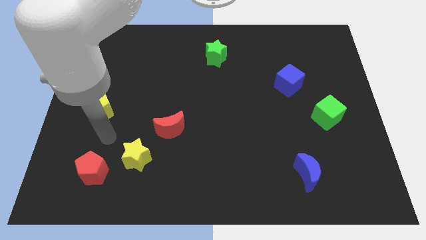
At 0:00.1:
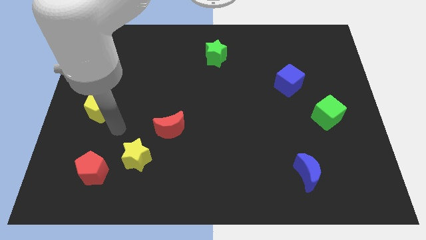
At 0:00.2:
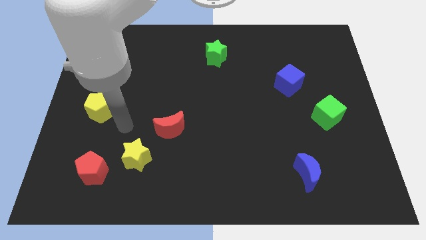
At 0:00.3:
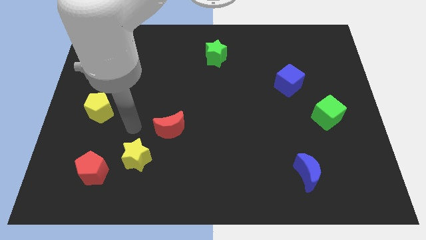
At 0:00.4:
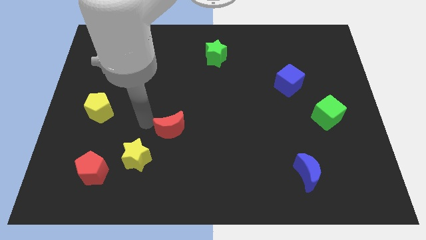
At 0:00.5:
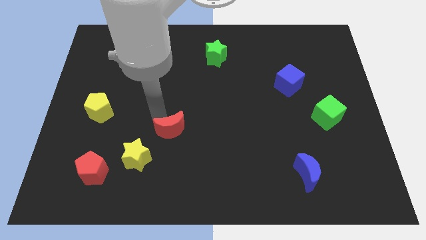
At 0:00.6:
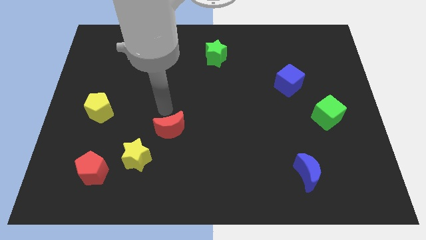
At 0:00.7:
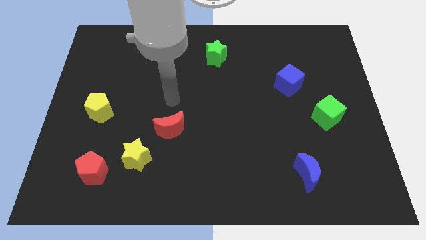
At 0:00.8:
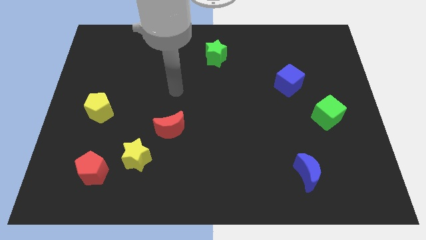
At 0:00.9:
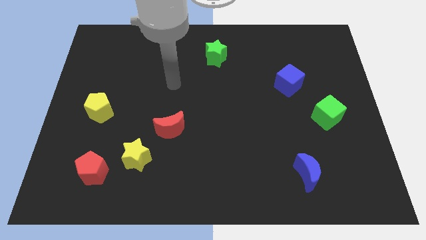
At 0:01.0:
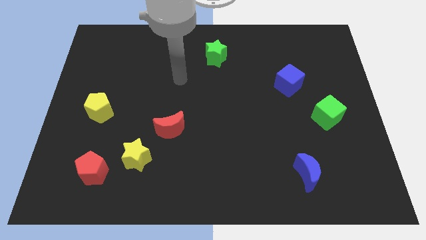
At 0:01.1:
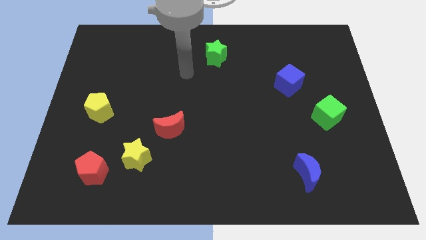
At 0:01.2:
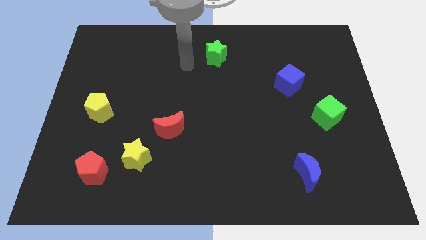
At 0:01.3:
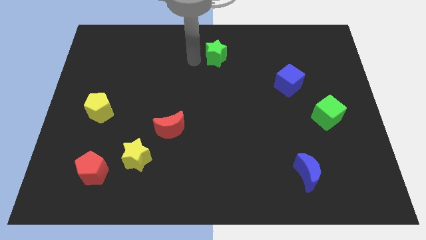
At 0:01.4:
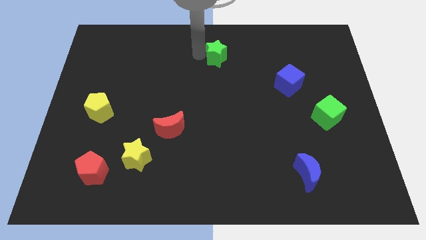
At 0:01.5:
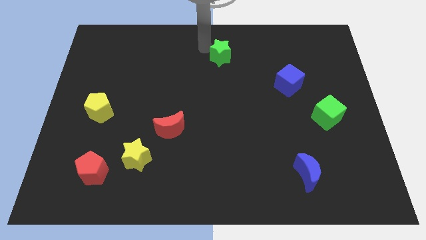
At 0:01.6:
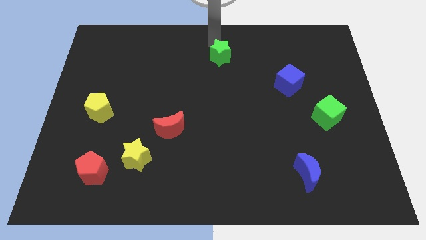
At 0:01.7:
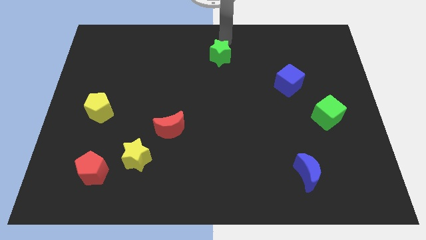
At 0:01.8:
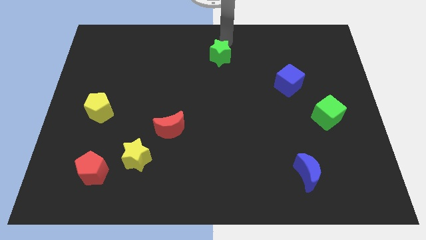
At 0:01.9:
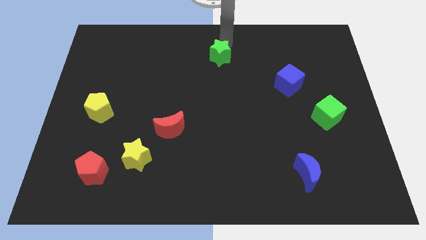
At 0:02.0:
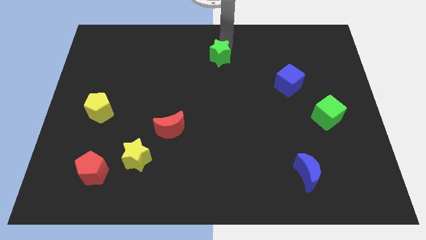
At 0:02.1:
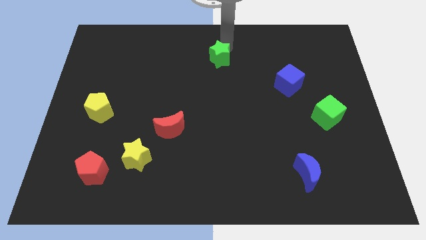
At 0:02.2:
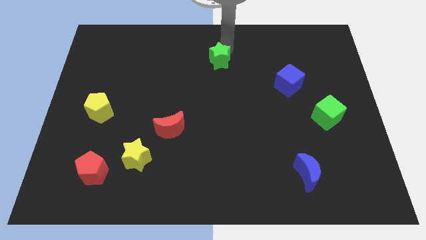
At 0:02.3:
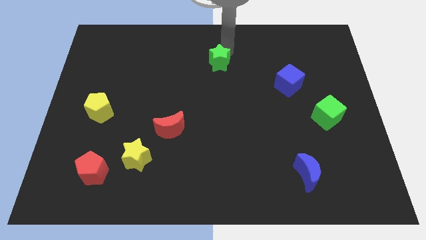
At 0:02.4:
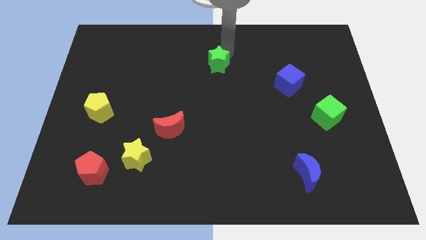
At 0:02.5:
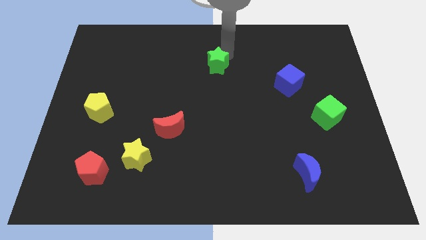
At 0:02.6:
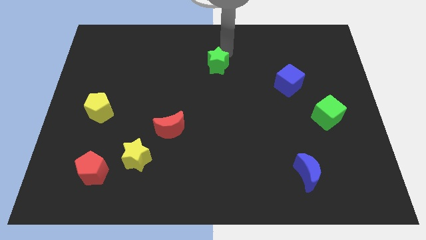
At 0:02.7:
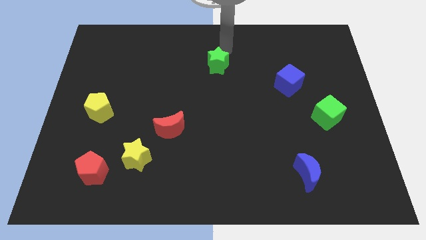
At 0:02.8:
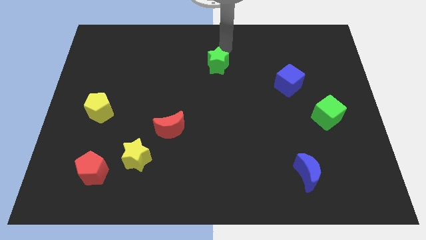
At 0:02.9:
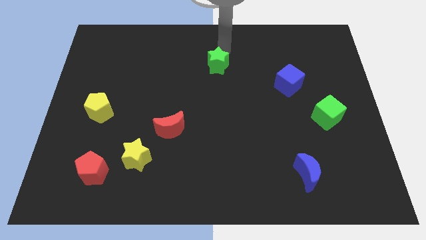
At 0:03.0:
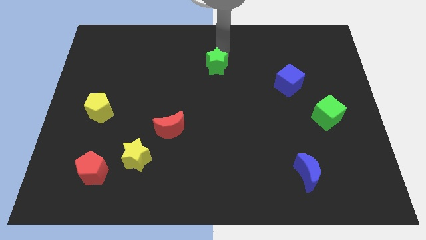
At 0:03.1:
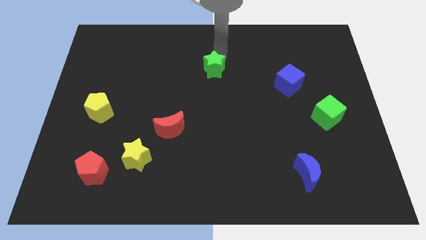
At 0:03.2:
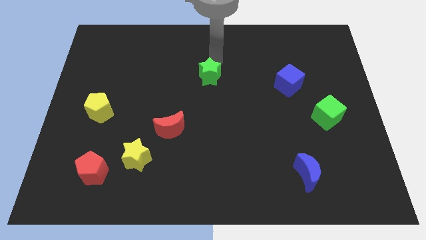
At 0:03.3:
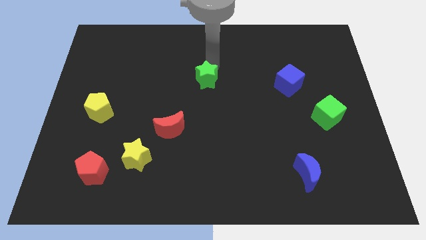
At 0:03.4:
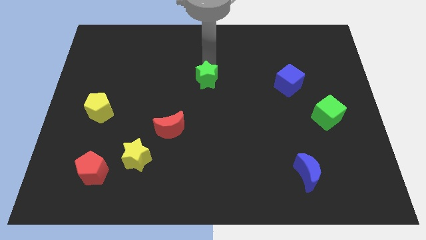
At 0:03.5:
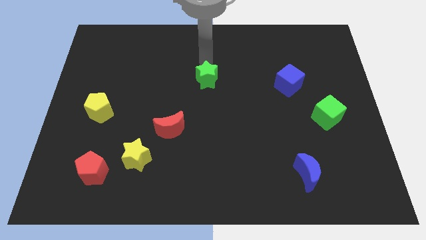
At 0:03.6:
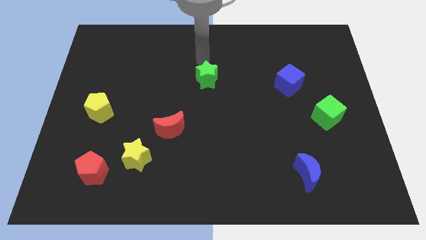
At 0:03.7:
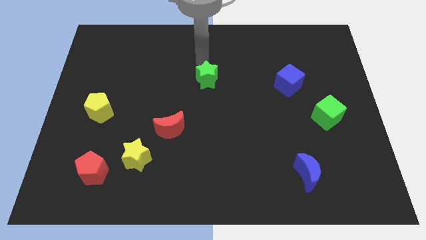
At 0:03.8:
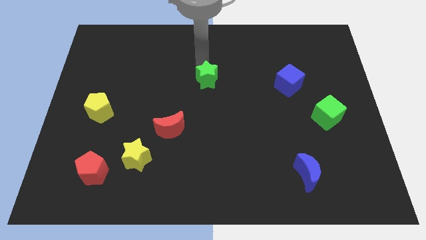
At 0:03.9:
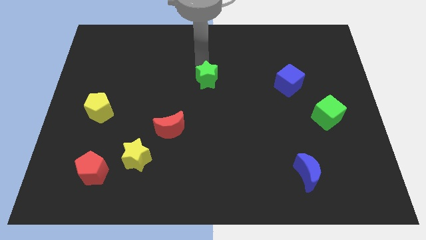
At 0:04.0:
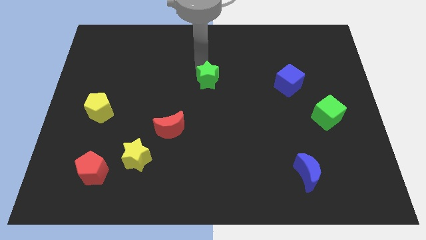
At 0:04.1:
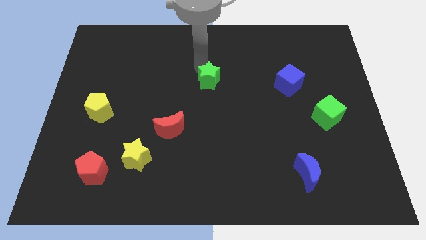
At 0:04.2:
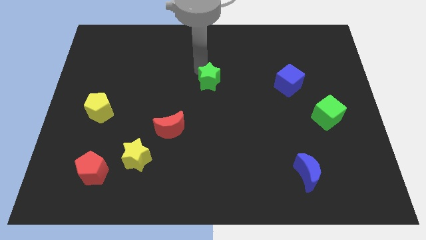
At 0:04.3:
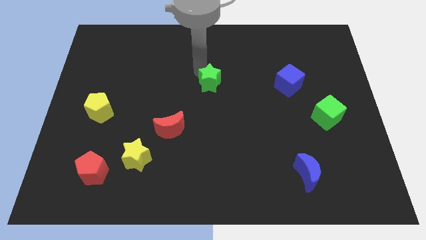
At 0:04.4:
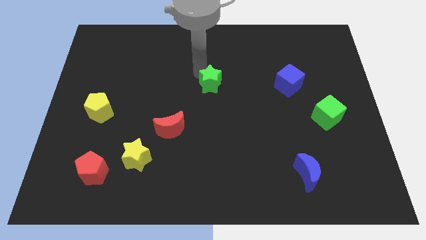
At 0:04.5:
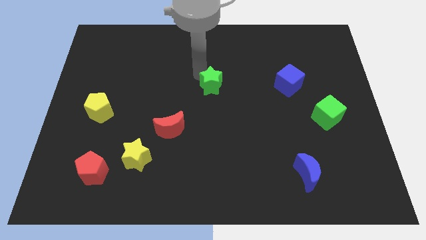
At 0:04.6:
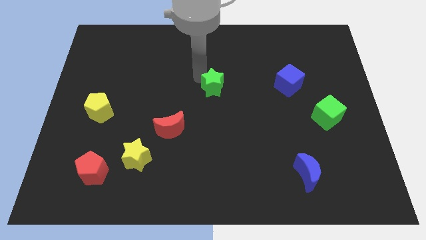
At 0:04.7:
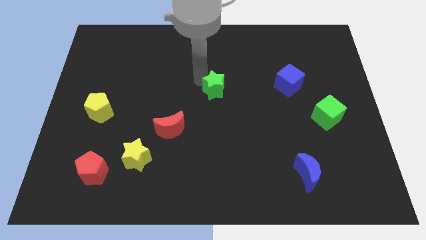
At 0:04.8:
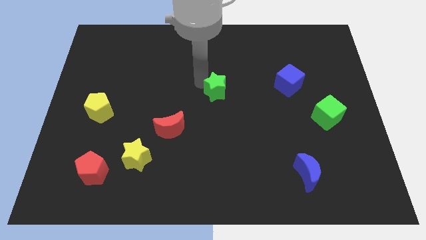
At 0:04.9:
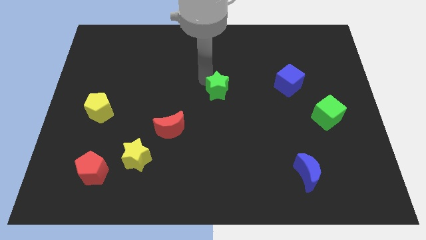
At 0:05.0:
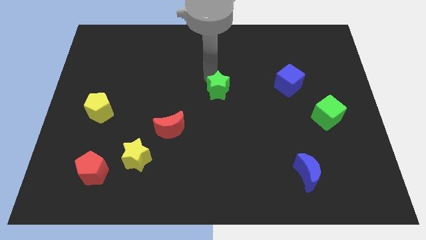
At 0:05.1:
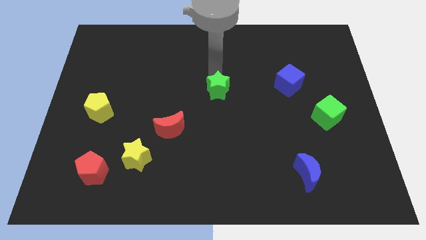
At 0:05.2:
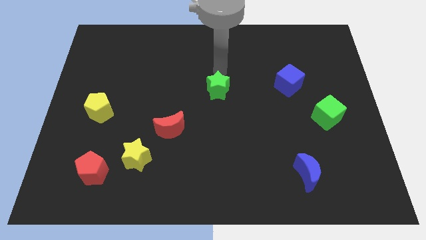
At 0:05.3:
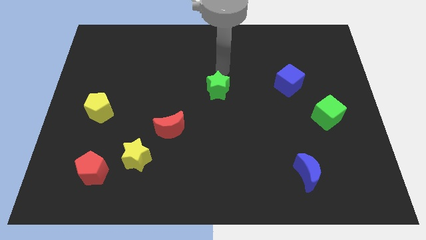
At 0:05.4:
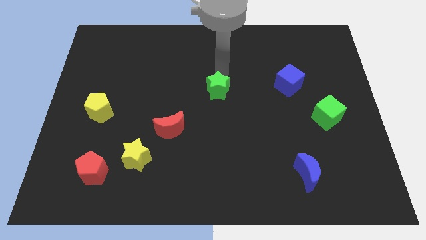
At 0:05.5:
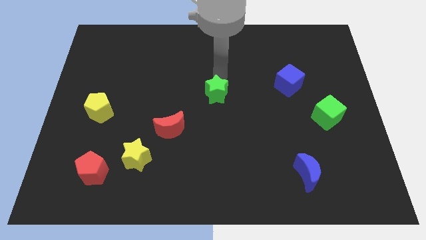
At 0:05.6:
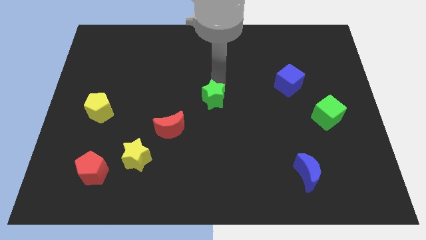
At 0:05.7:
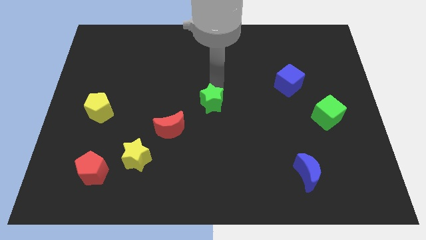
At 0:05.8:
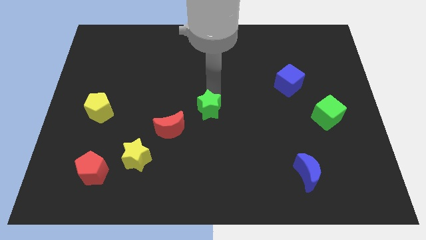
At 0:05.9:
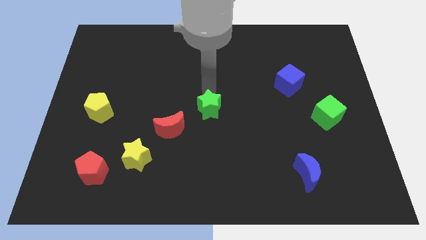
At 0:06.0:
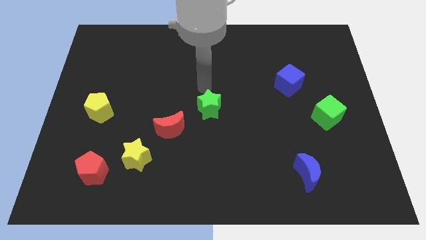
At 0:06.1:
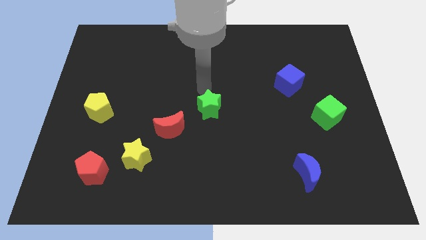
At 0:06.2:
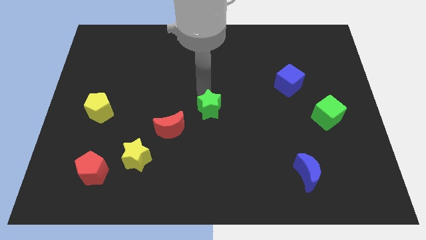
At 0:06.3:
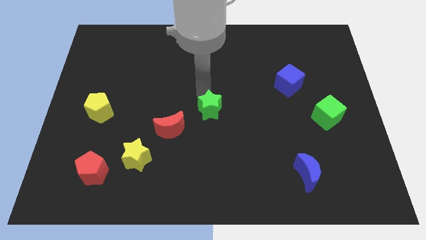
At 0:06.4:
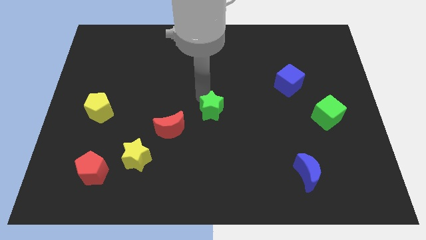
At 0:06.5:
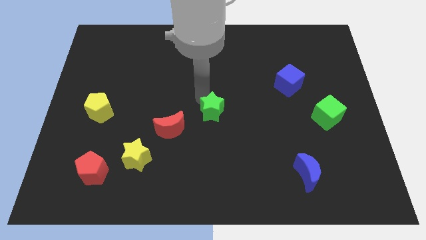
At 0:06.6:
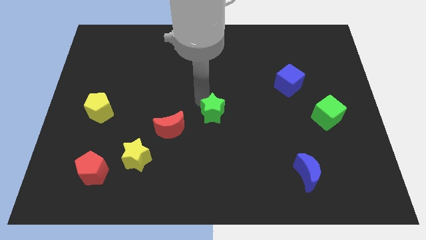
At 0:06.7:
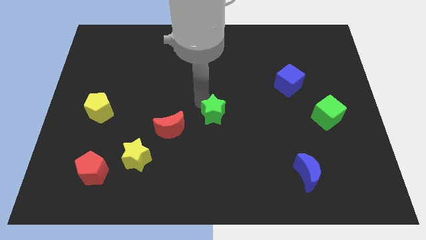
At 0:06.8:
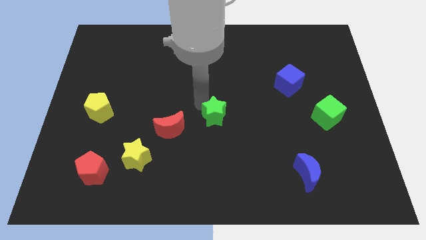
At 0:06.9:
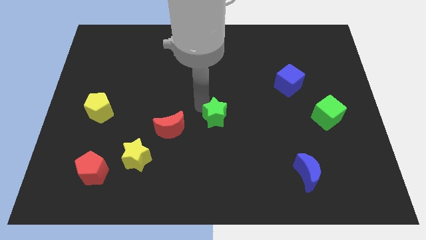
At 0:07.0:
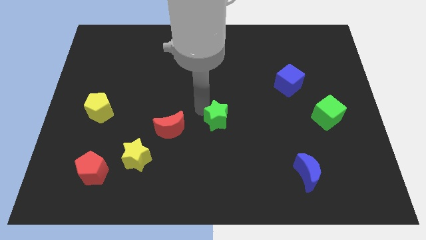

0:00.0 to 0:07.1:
slide the green star downwards

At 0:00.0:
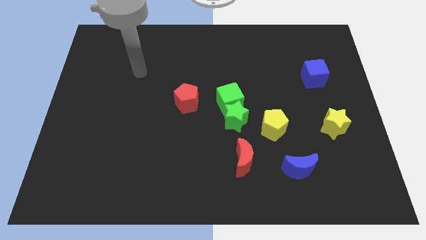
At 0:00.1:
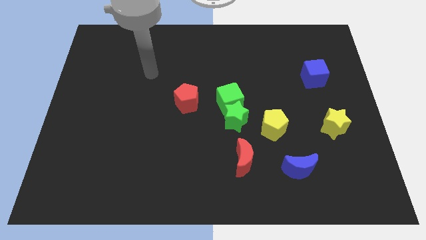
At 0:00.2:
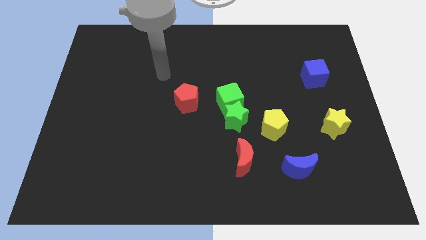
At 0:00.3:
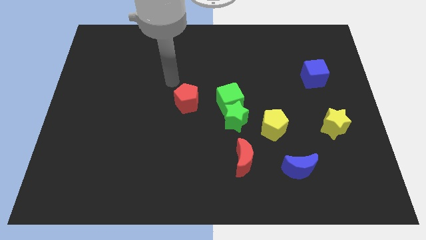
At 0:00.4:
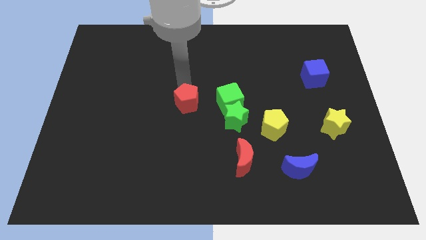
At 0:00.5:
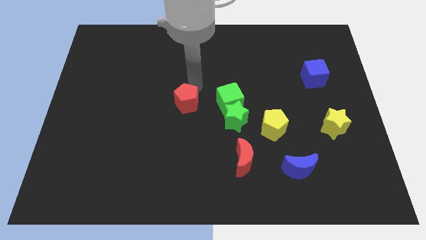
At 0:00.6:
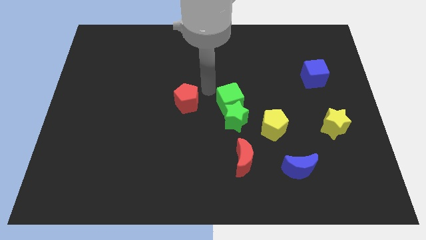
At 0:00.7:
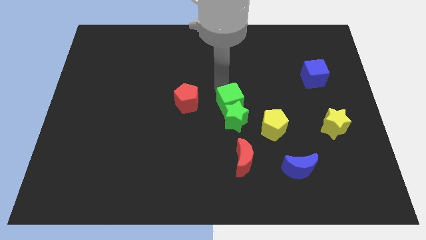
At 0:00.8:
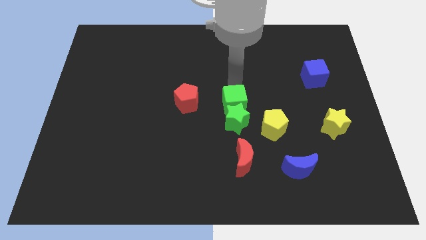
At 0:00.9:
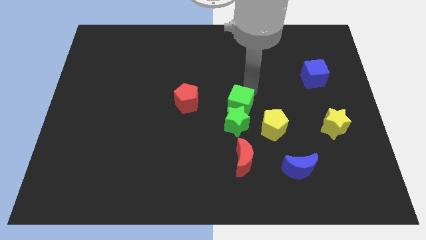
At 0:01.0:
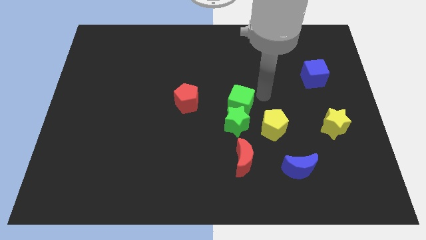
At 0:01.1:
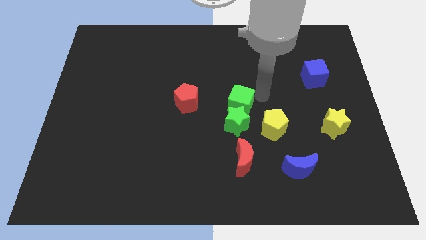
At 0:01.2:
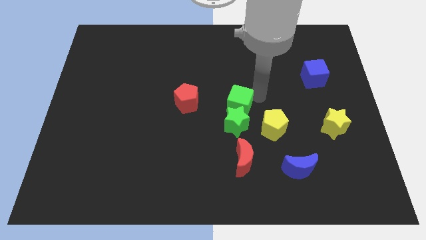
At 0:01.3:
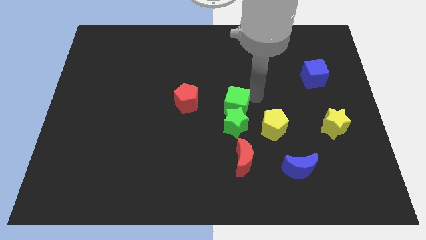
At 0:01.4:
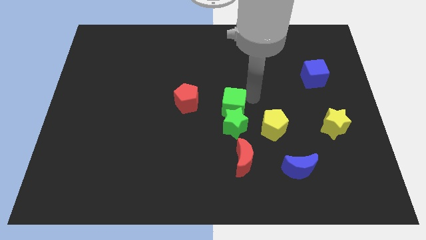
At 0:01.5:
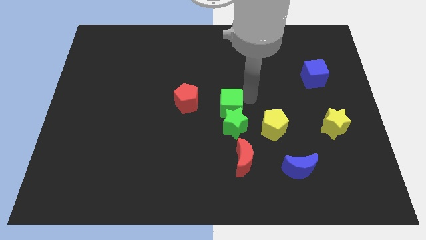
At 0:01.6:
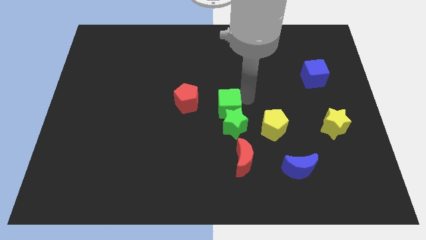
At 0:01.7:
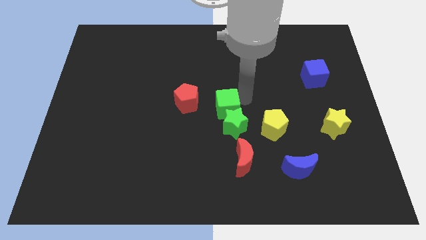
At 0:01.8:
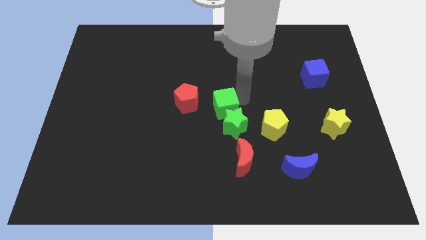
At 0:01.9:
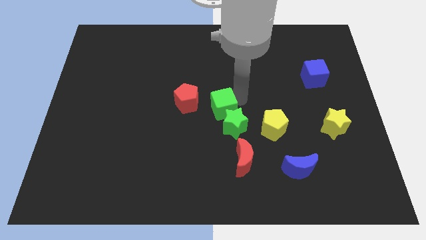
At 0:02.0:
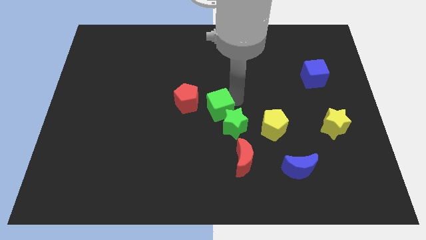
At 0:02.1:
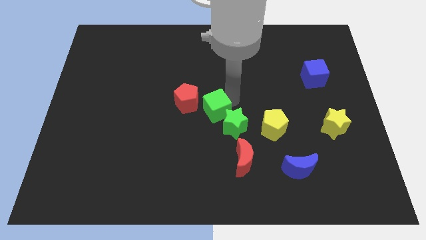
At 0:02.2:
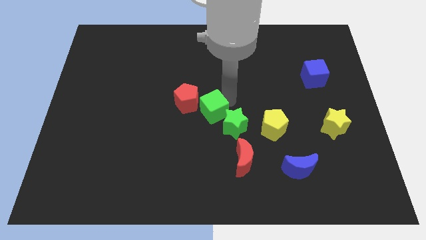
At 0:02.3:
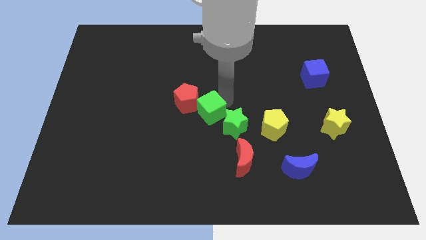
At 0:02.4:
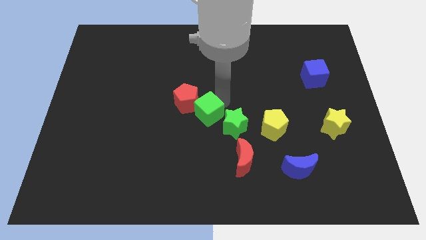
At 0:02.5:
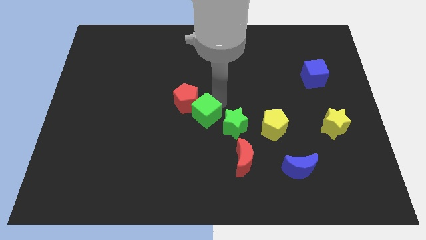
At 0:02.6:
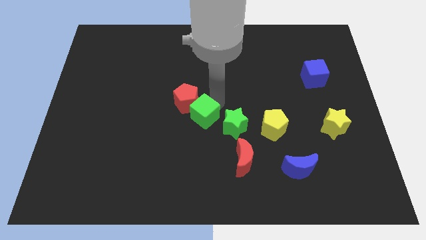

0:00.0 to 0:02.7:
move the green cube slightly diagonally down and left
